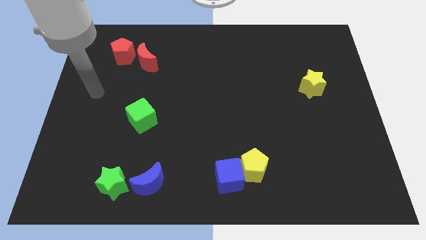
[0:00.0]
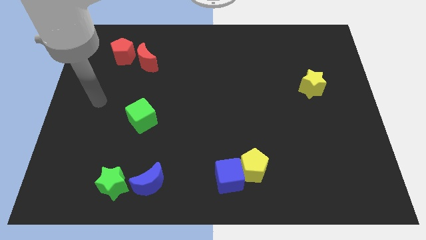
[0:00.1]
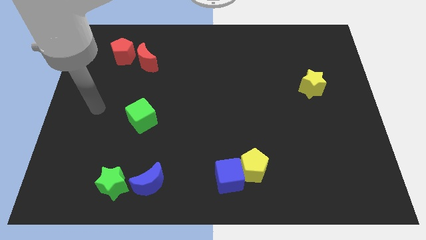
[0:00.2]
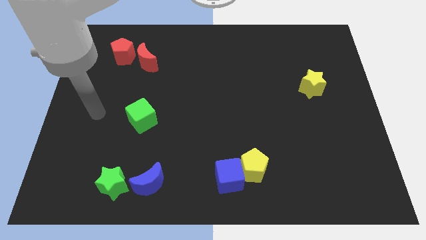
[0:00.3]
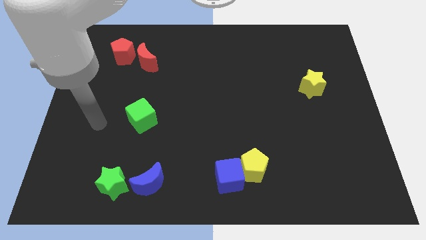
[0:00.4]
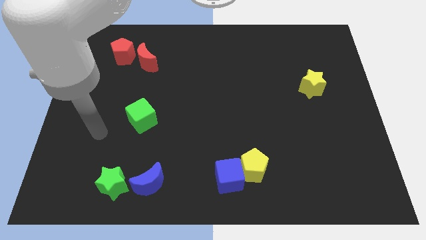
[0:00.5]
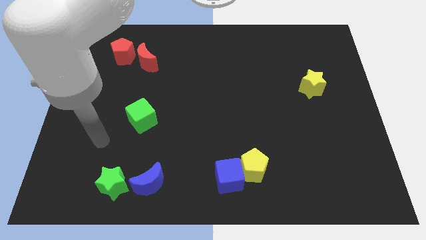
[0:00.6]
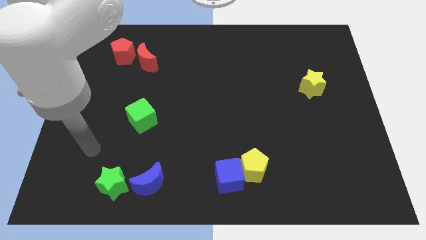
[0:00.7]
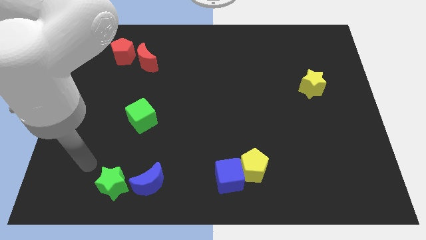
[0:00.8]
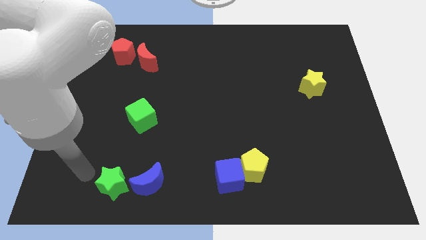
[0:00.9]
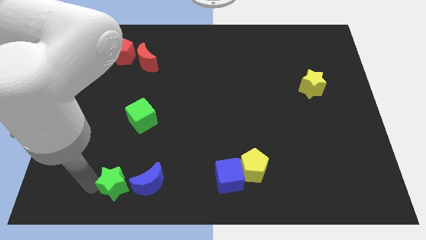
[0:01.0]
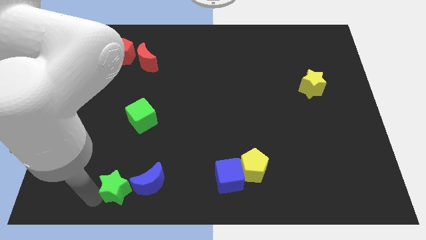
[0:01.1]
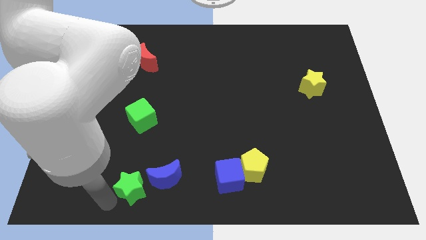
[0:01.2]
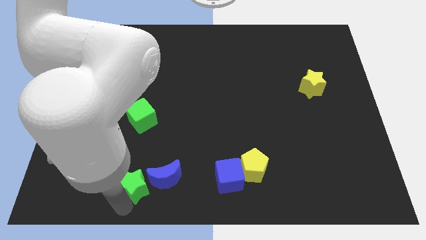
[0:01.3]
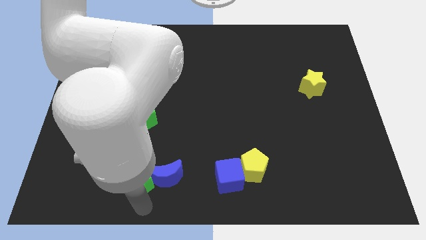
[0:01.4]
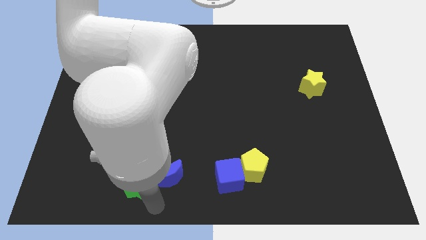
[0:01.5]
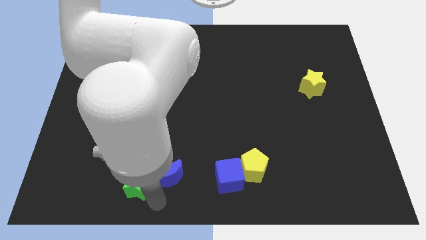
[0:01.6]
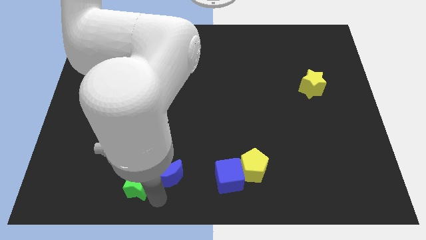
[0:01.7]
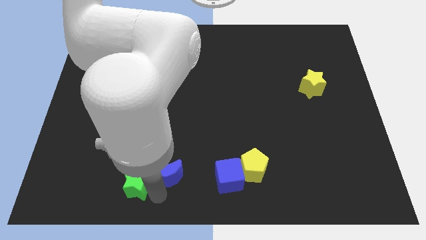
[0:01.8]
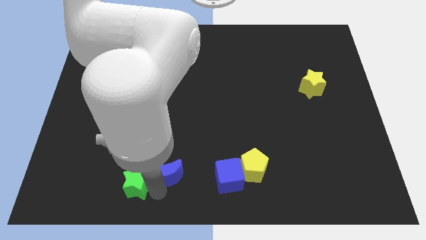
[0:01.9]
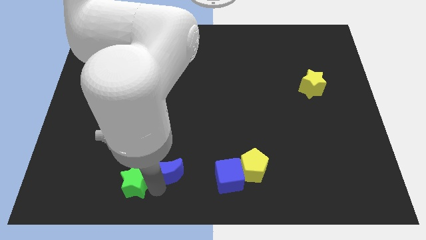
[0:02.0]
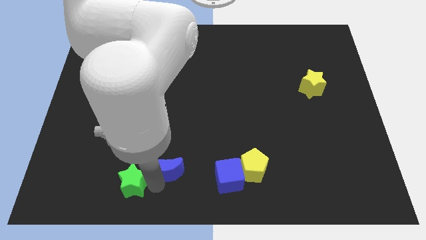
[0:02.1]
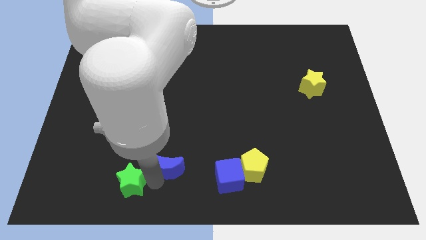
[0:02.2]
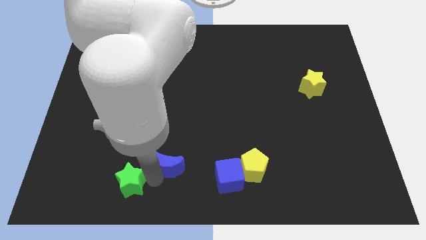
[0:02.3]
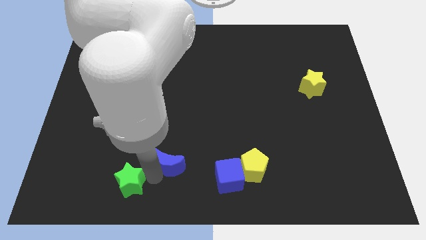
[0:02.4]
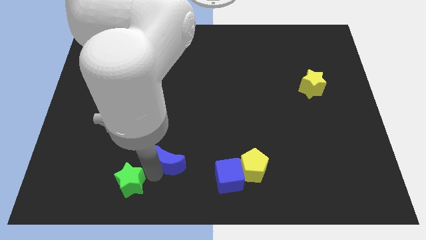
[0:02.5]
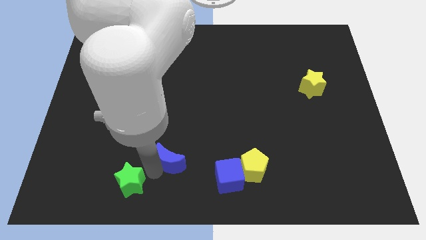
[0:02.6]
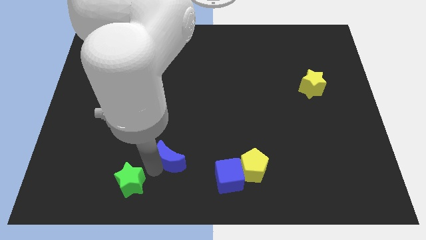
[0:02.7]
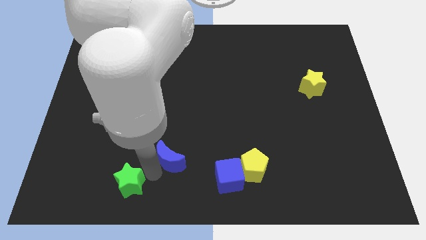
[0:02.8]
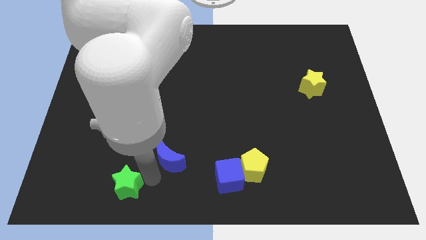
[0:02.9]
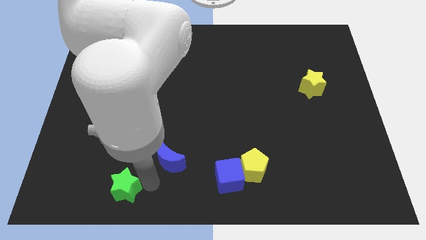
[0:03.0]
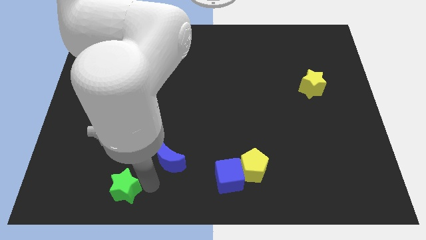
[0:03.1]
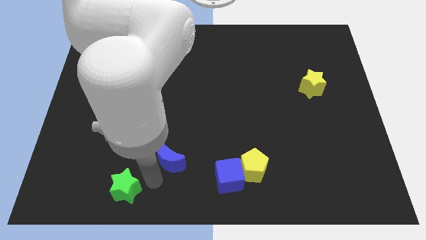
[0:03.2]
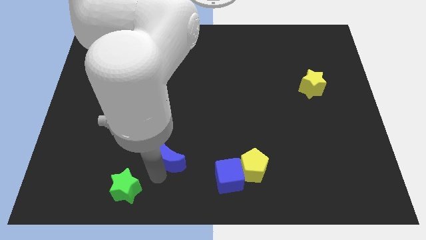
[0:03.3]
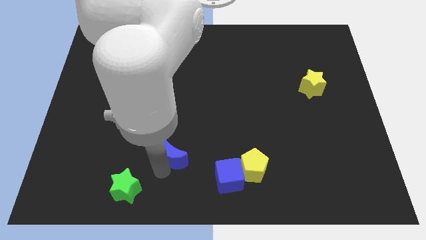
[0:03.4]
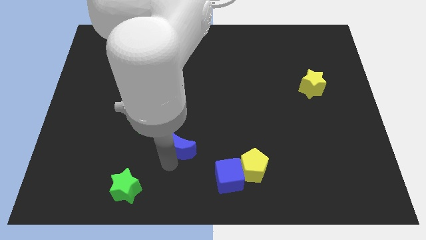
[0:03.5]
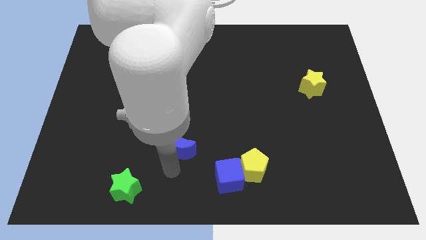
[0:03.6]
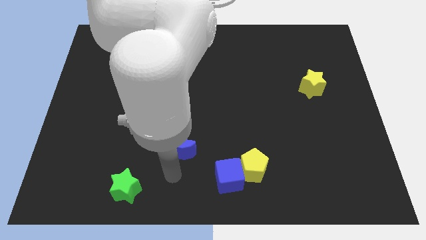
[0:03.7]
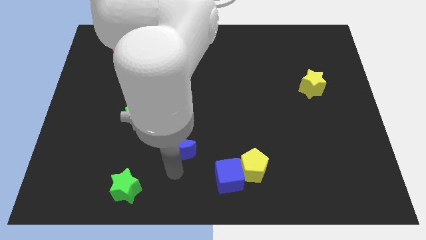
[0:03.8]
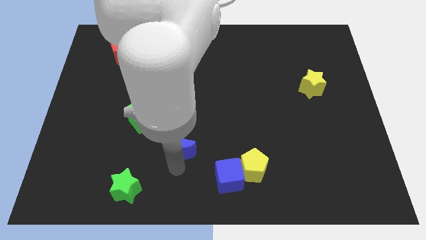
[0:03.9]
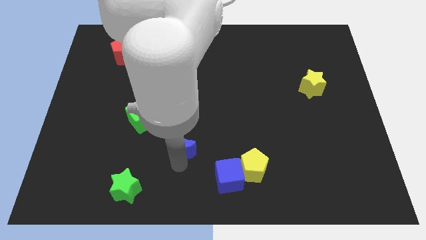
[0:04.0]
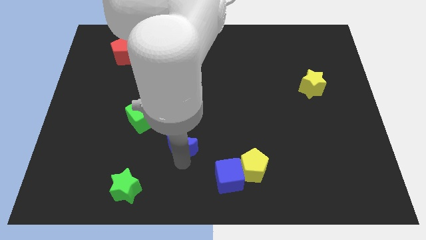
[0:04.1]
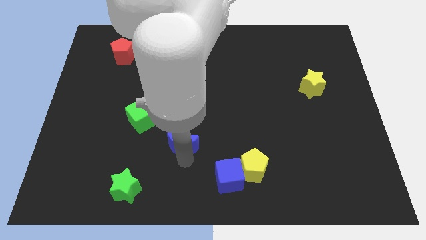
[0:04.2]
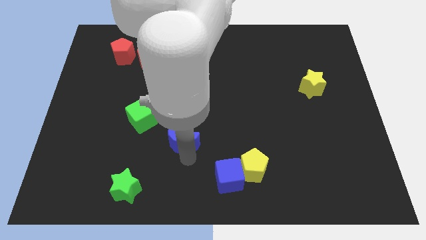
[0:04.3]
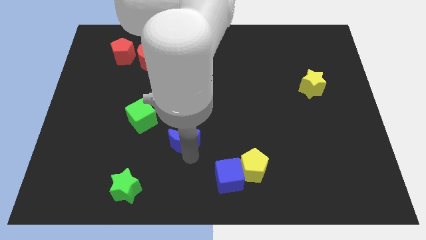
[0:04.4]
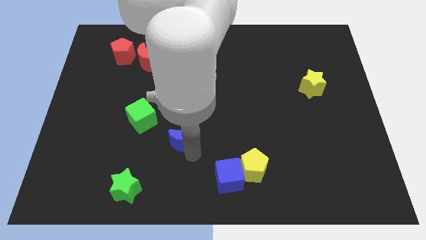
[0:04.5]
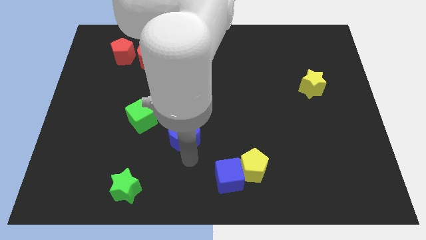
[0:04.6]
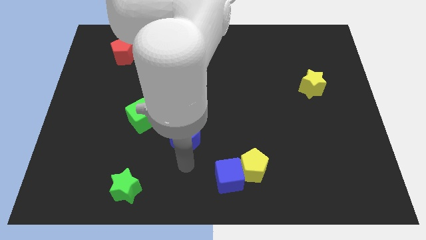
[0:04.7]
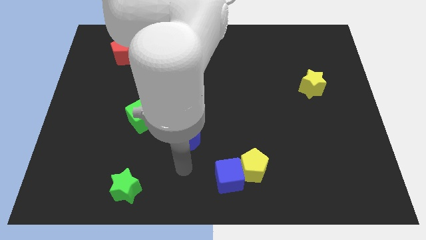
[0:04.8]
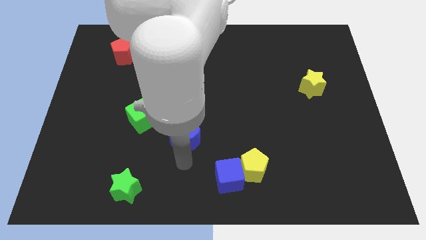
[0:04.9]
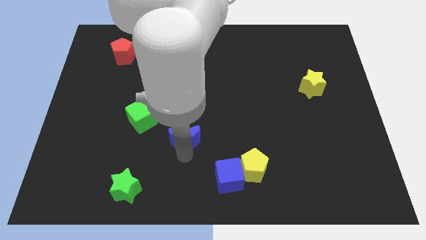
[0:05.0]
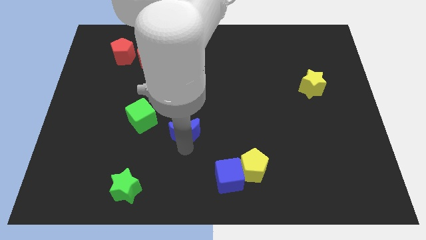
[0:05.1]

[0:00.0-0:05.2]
push the blue moon to the right side of the green cube
